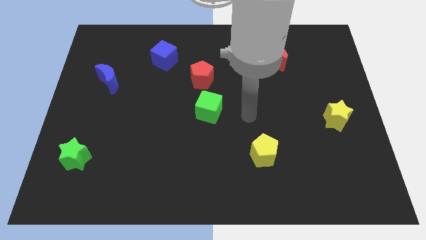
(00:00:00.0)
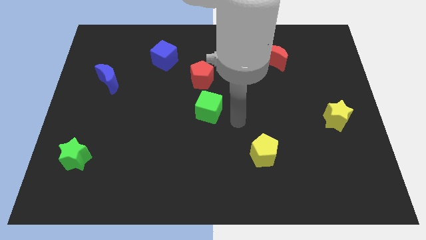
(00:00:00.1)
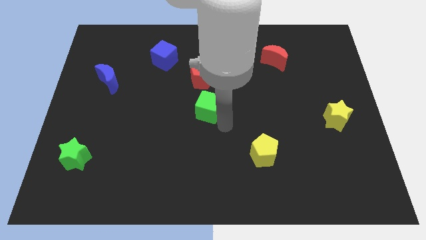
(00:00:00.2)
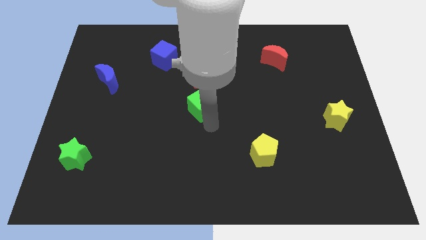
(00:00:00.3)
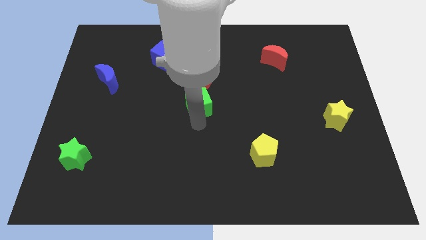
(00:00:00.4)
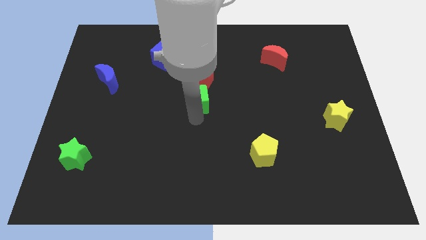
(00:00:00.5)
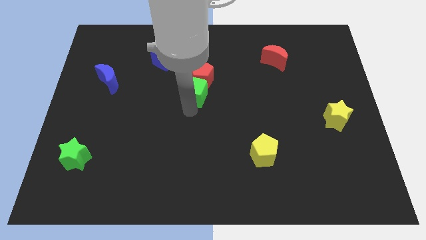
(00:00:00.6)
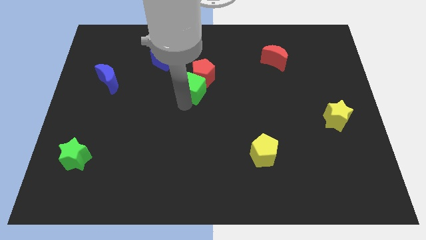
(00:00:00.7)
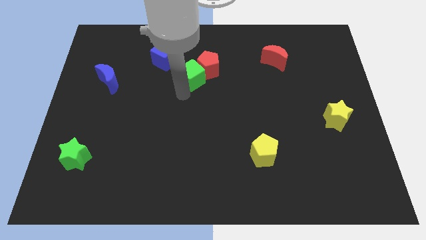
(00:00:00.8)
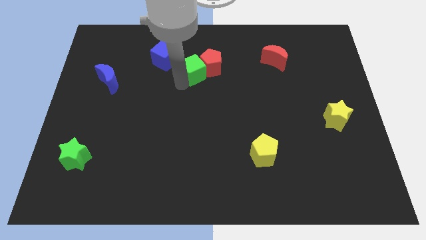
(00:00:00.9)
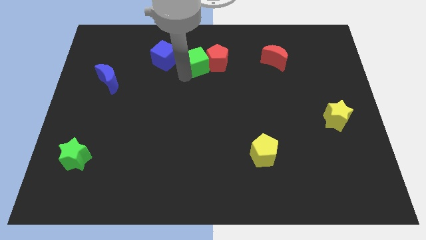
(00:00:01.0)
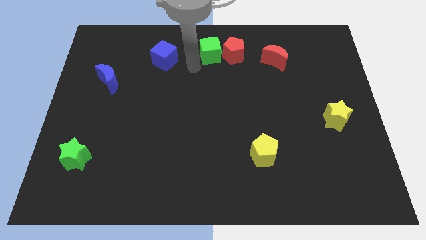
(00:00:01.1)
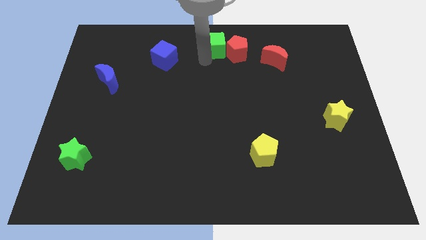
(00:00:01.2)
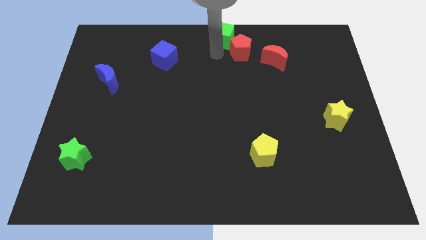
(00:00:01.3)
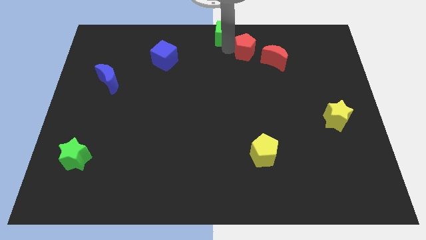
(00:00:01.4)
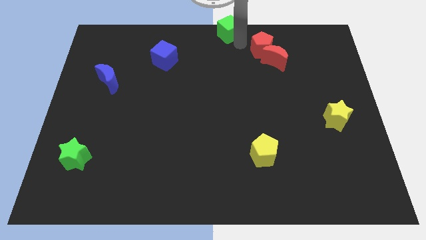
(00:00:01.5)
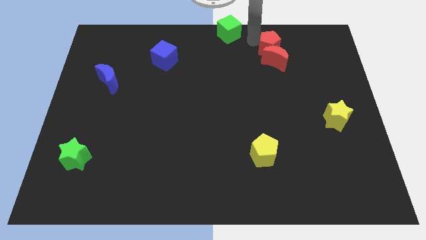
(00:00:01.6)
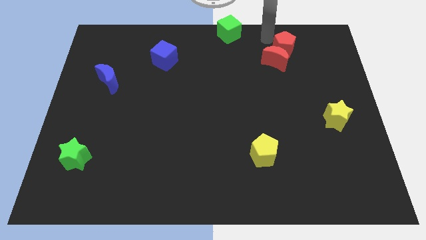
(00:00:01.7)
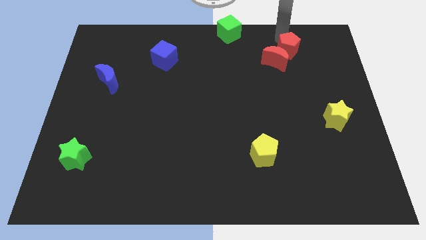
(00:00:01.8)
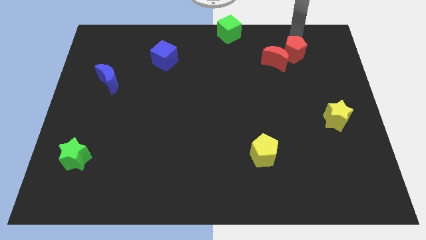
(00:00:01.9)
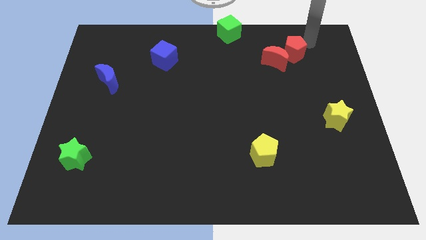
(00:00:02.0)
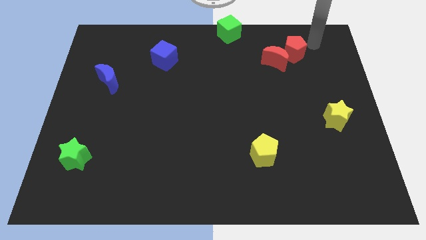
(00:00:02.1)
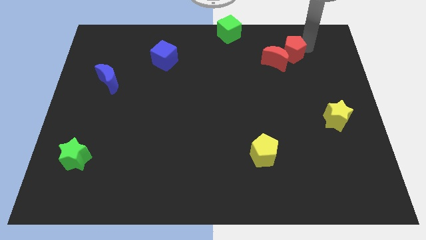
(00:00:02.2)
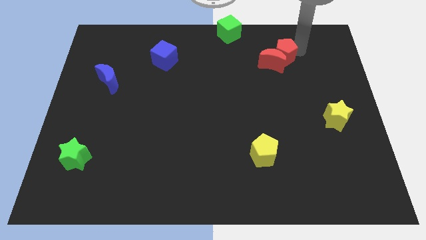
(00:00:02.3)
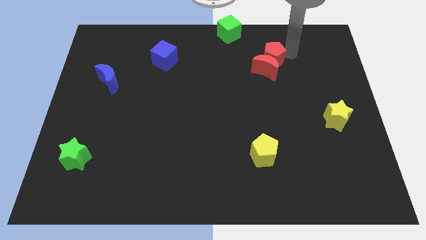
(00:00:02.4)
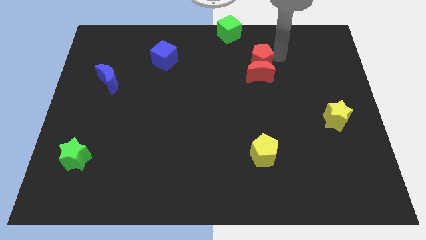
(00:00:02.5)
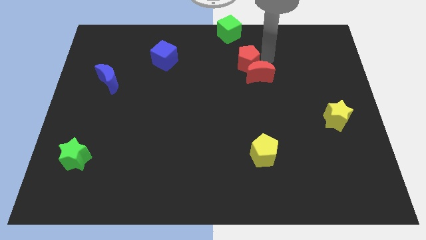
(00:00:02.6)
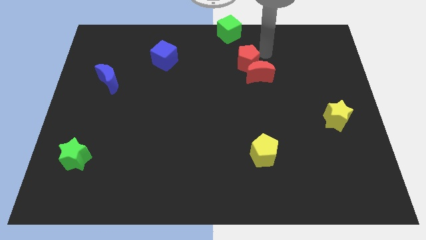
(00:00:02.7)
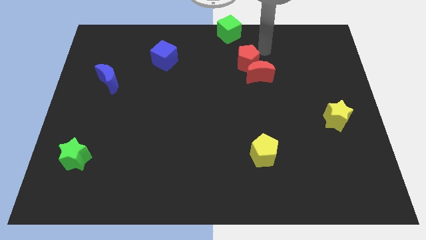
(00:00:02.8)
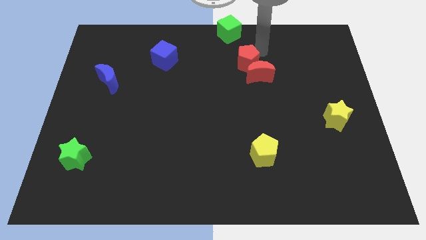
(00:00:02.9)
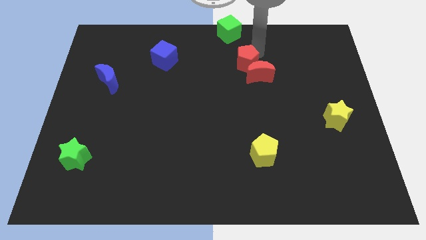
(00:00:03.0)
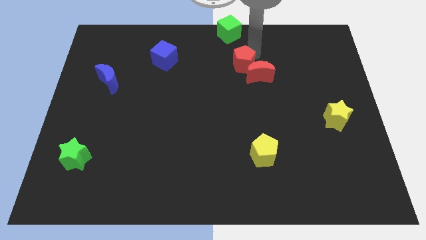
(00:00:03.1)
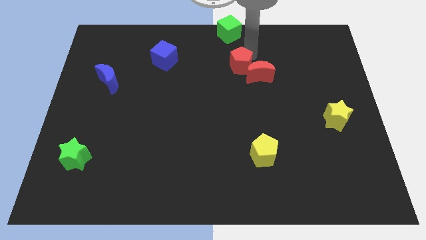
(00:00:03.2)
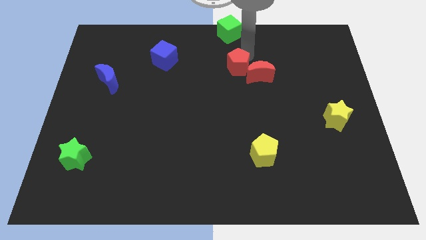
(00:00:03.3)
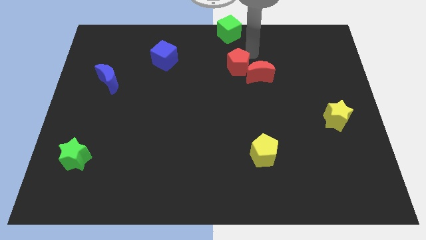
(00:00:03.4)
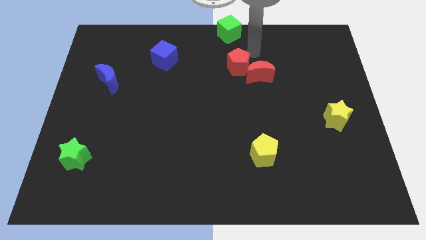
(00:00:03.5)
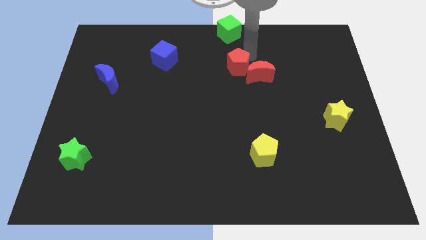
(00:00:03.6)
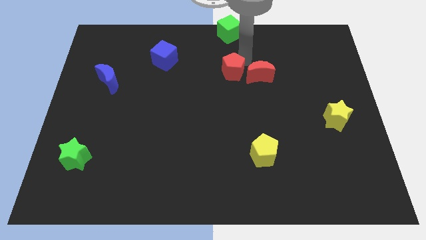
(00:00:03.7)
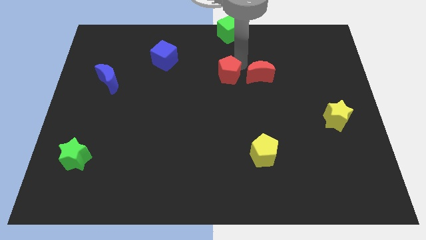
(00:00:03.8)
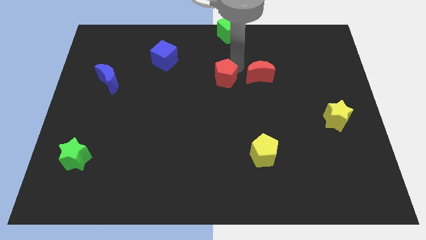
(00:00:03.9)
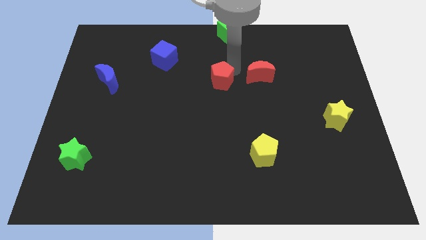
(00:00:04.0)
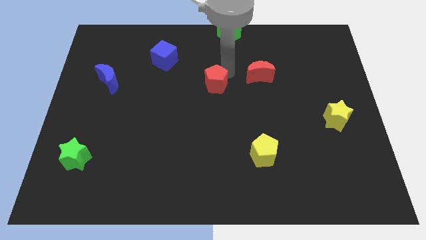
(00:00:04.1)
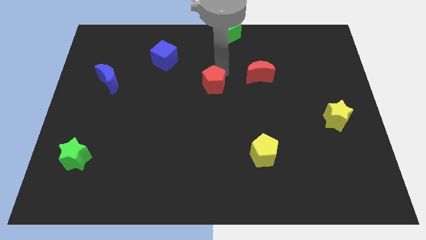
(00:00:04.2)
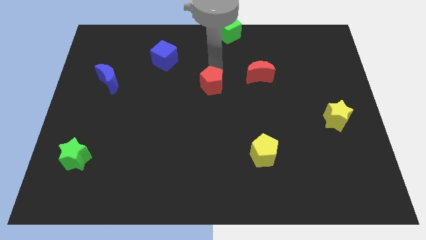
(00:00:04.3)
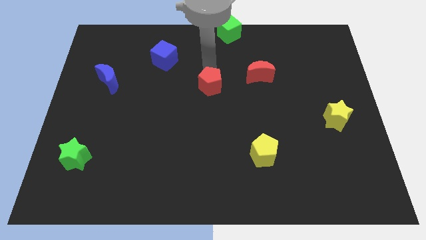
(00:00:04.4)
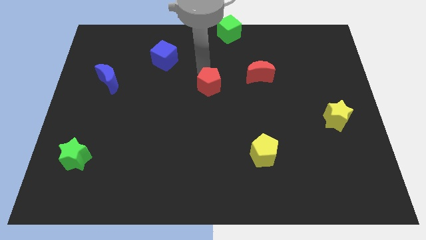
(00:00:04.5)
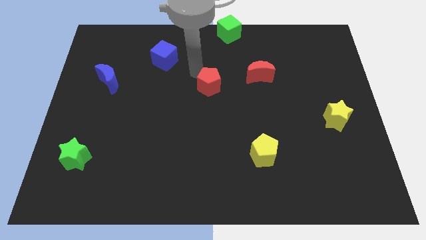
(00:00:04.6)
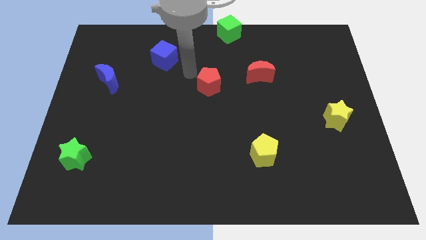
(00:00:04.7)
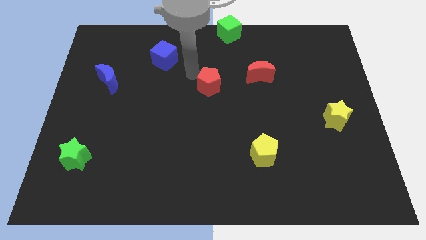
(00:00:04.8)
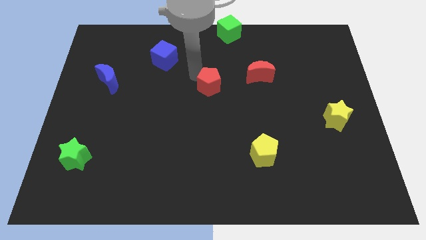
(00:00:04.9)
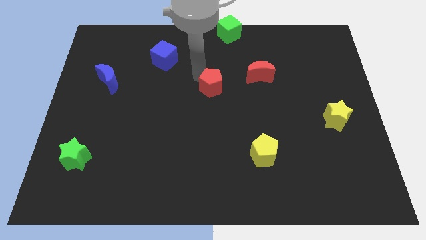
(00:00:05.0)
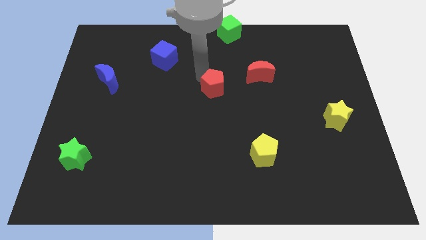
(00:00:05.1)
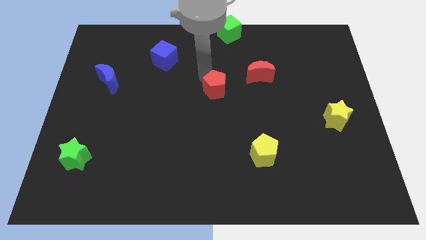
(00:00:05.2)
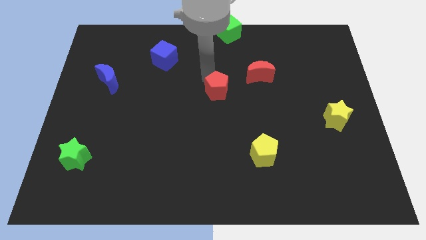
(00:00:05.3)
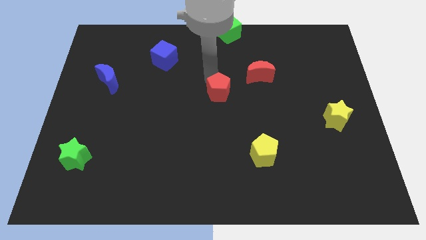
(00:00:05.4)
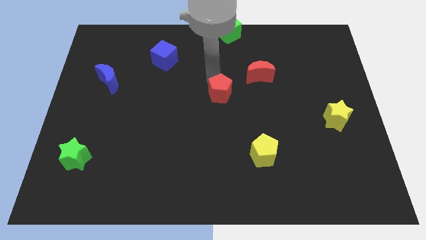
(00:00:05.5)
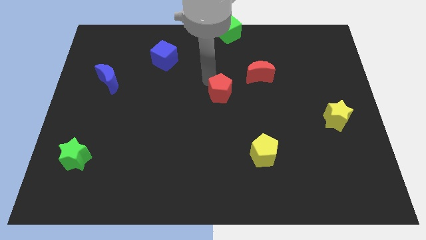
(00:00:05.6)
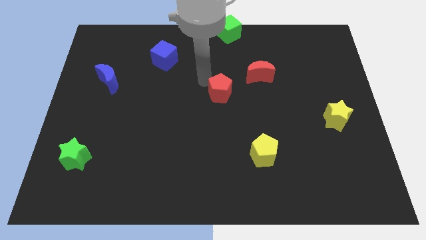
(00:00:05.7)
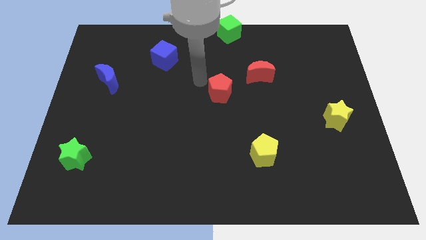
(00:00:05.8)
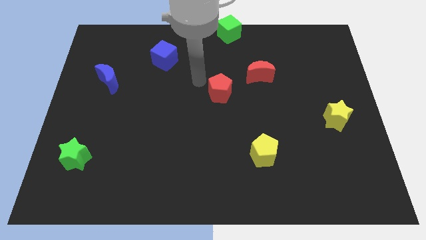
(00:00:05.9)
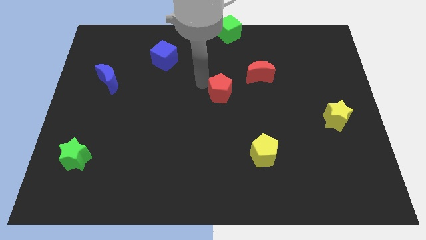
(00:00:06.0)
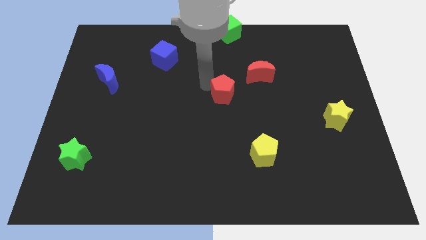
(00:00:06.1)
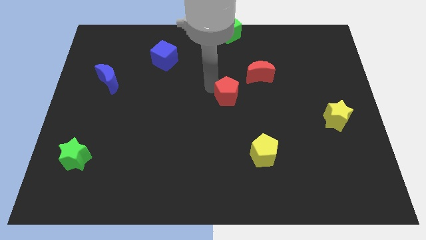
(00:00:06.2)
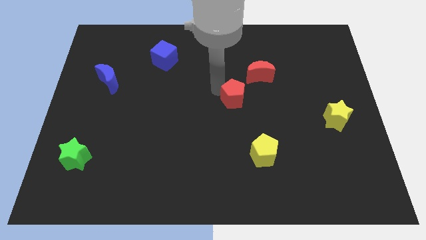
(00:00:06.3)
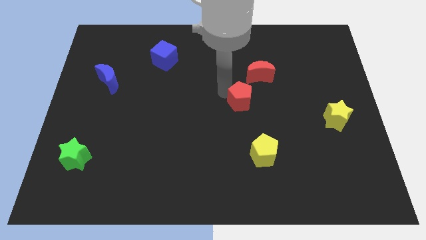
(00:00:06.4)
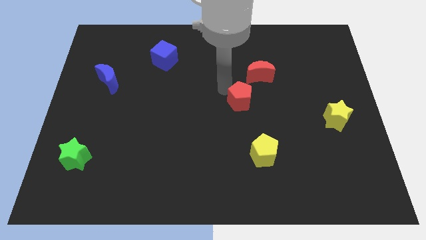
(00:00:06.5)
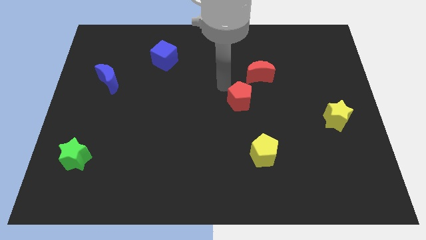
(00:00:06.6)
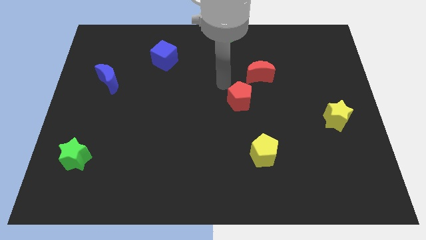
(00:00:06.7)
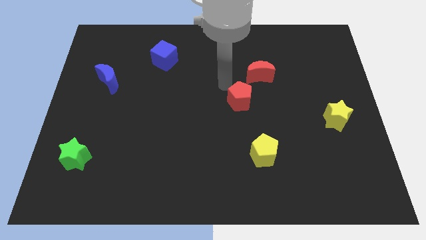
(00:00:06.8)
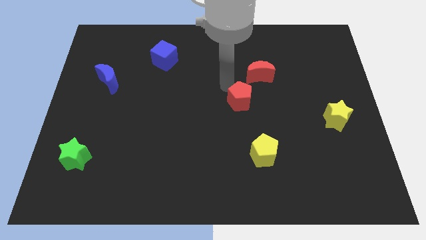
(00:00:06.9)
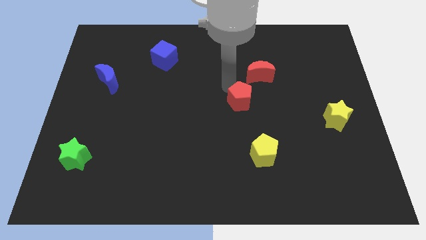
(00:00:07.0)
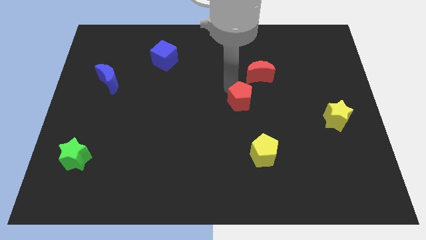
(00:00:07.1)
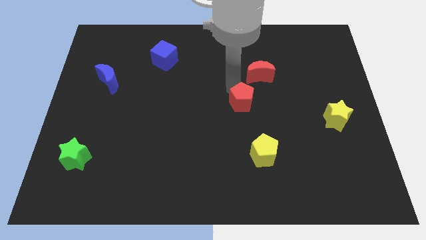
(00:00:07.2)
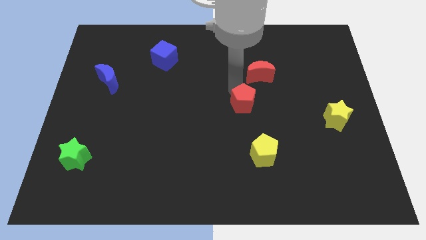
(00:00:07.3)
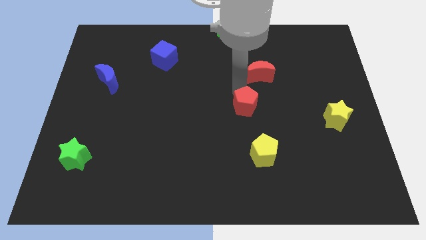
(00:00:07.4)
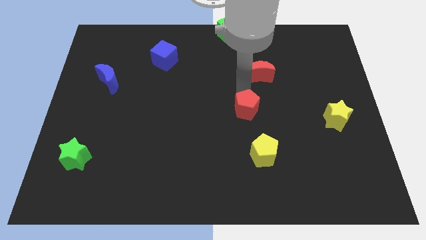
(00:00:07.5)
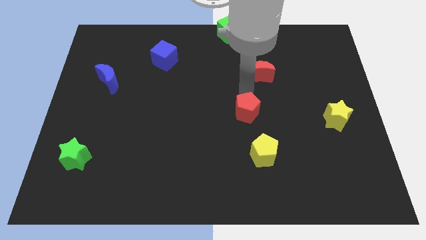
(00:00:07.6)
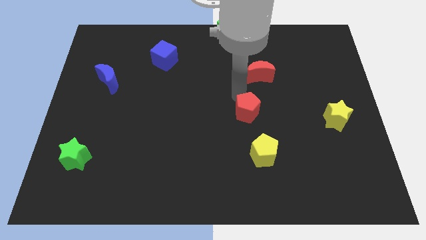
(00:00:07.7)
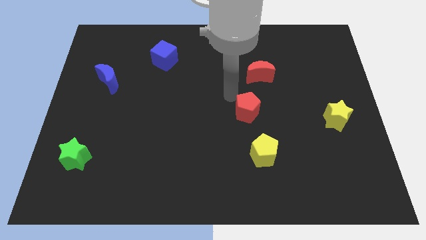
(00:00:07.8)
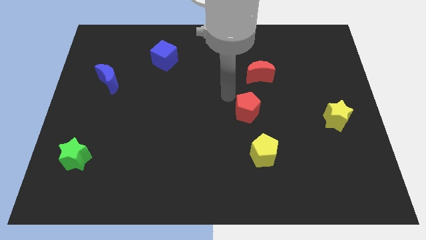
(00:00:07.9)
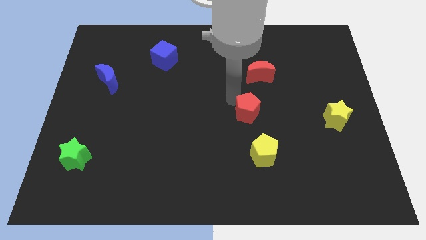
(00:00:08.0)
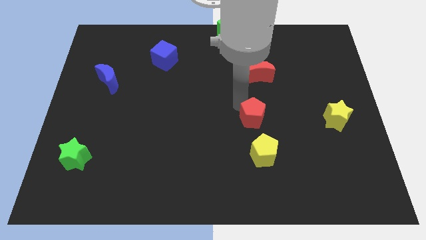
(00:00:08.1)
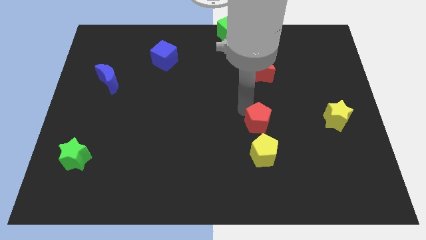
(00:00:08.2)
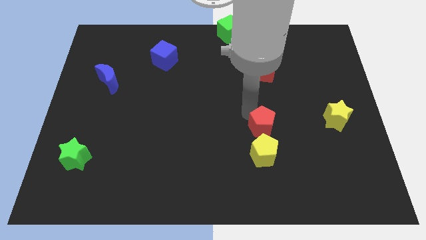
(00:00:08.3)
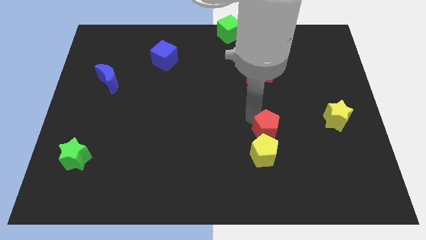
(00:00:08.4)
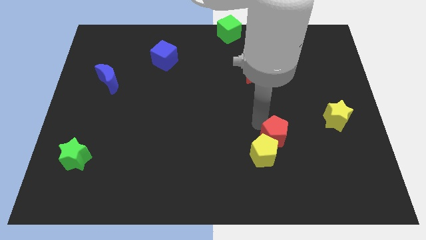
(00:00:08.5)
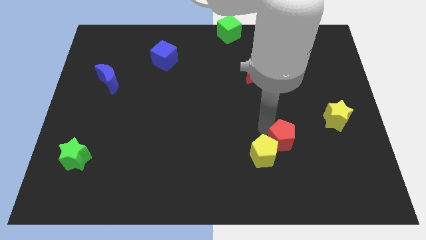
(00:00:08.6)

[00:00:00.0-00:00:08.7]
push the red pentagon to the right side of the yellow pentagon
